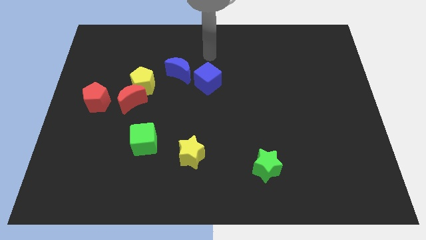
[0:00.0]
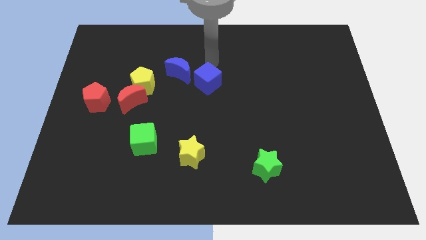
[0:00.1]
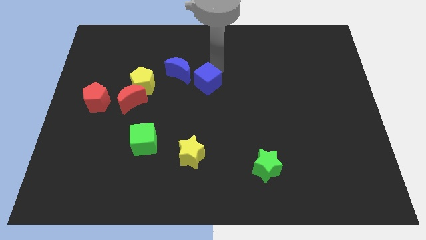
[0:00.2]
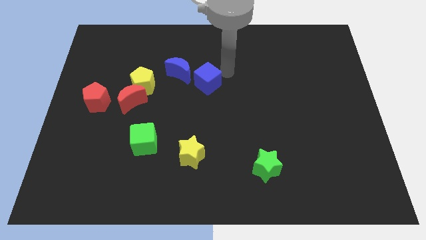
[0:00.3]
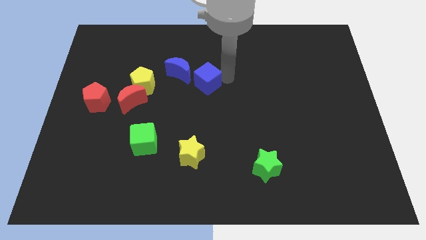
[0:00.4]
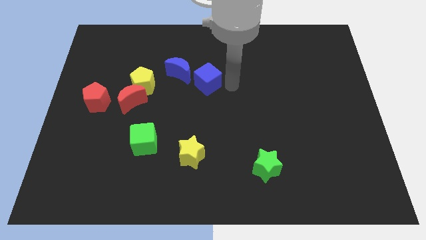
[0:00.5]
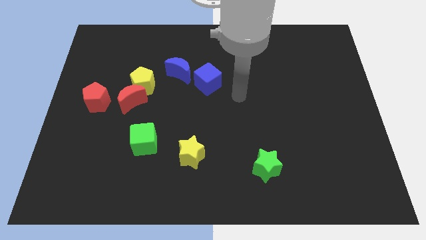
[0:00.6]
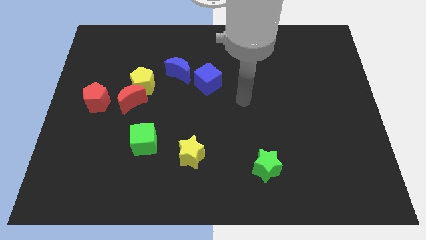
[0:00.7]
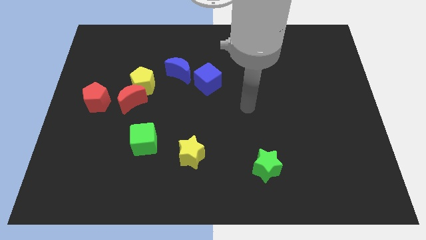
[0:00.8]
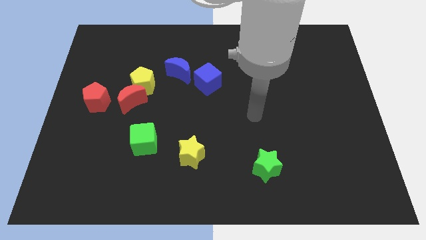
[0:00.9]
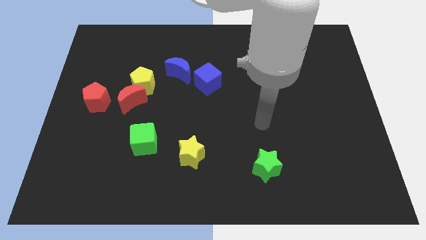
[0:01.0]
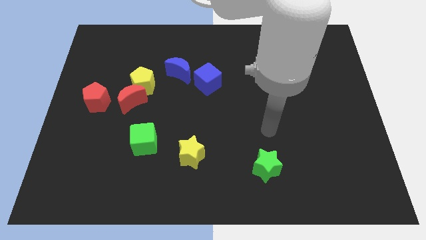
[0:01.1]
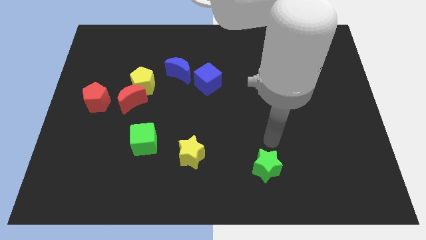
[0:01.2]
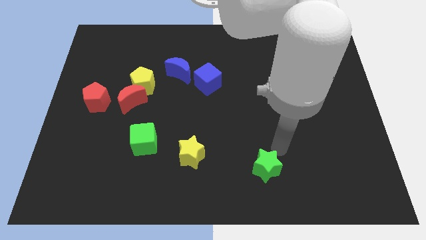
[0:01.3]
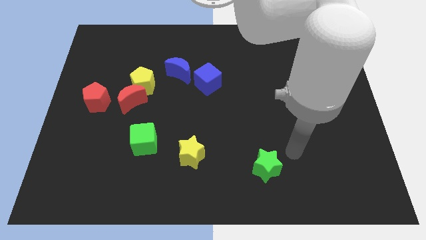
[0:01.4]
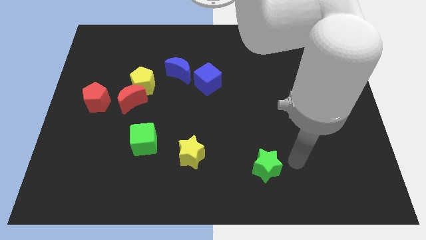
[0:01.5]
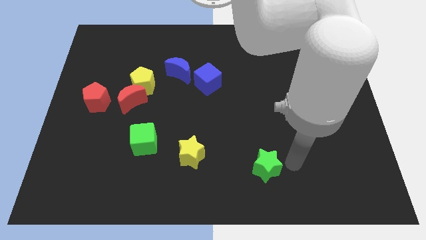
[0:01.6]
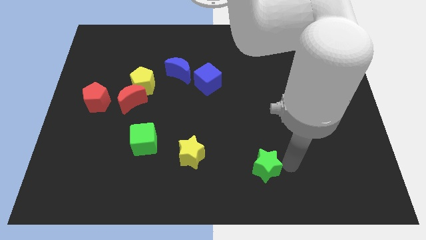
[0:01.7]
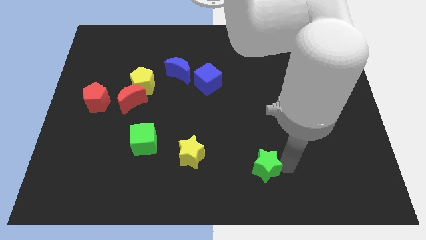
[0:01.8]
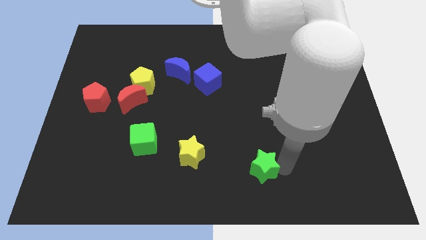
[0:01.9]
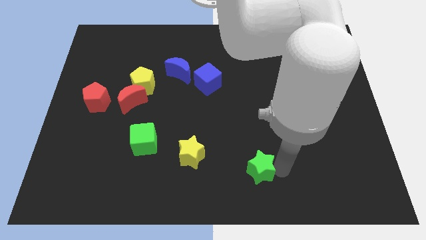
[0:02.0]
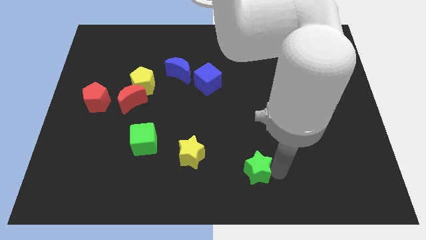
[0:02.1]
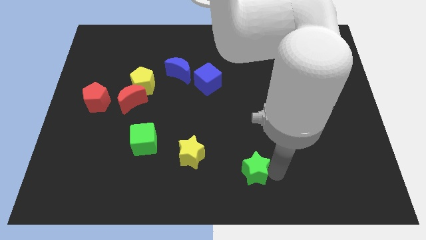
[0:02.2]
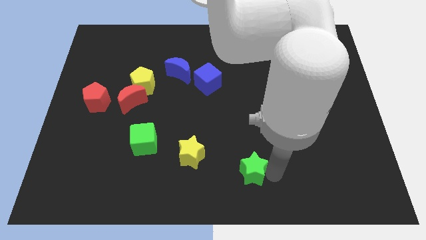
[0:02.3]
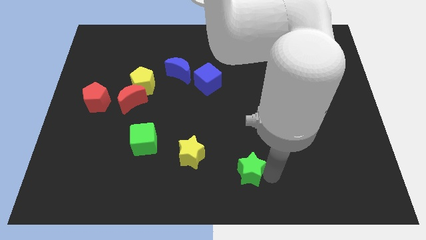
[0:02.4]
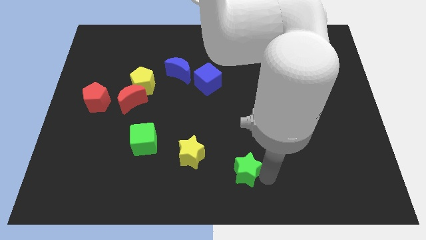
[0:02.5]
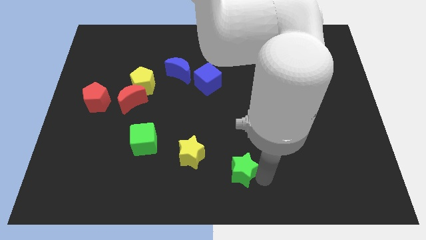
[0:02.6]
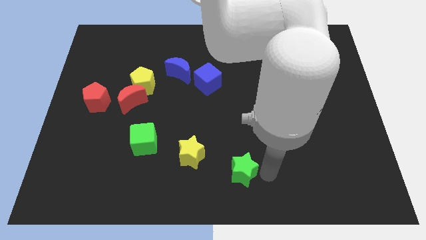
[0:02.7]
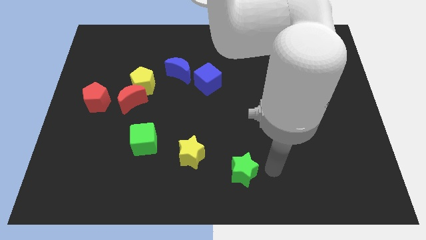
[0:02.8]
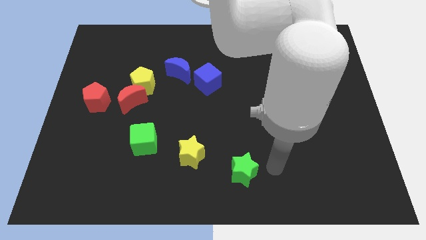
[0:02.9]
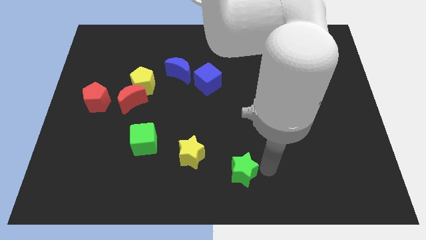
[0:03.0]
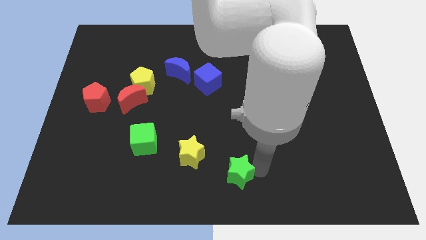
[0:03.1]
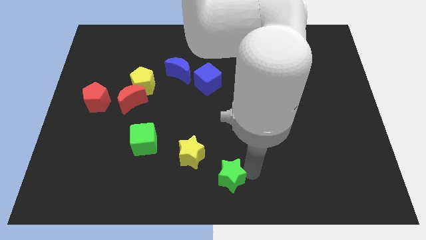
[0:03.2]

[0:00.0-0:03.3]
move the green star a little to the left

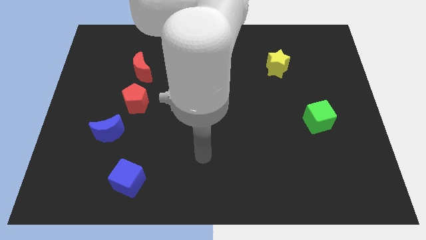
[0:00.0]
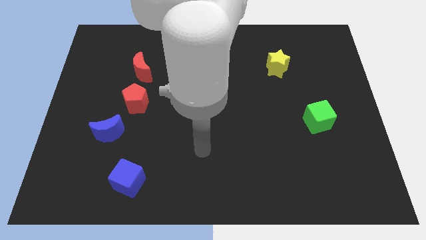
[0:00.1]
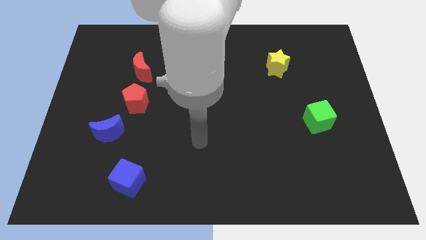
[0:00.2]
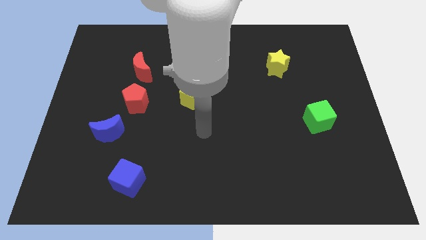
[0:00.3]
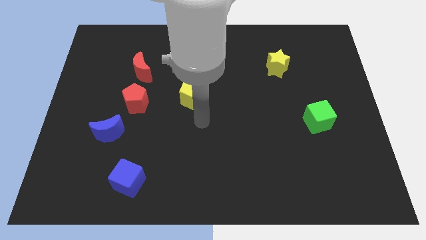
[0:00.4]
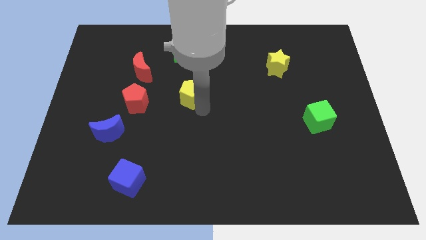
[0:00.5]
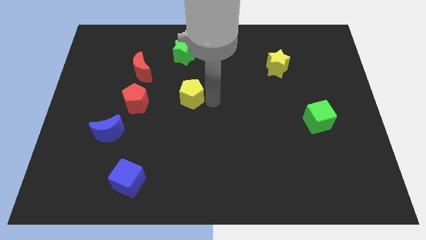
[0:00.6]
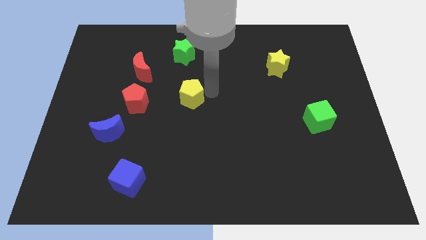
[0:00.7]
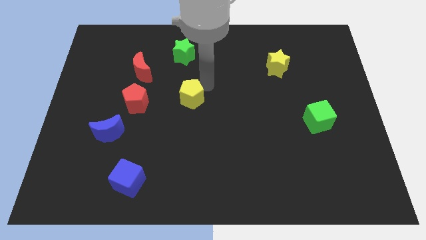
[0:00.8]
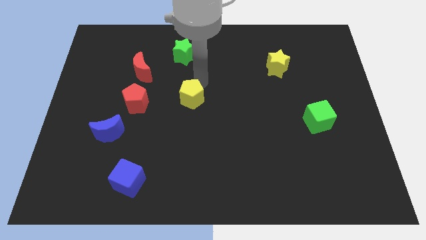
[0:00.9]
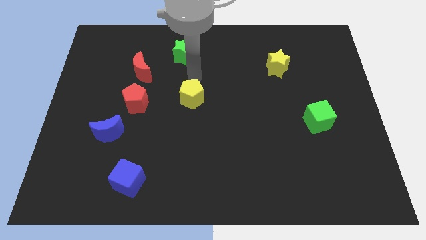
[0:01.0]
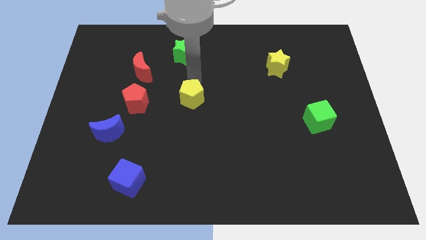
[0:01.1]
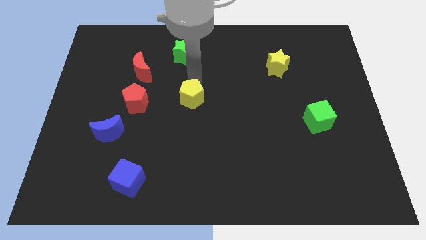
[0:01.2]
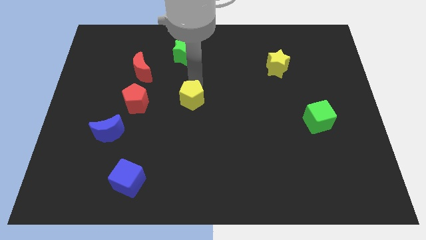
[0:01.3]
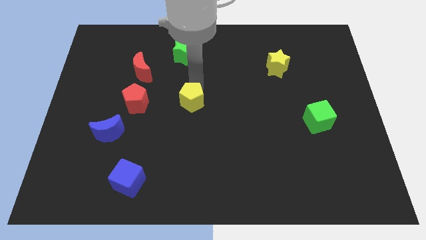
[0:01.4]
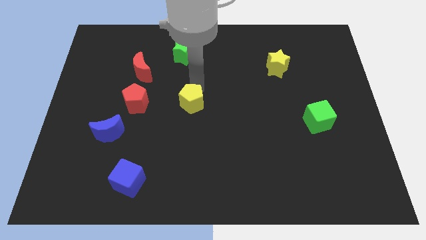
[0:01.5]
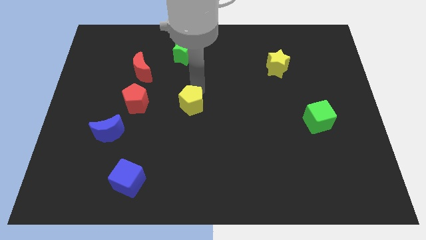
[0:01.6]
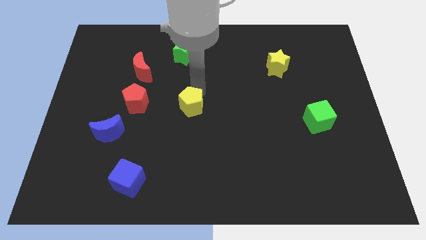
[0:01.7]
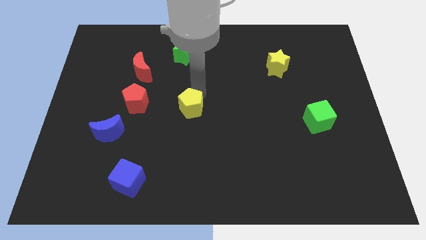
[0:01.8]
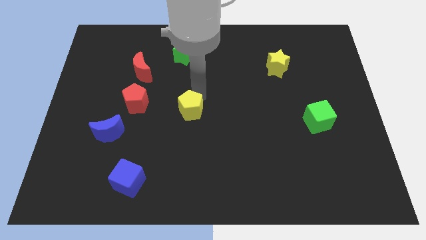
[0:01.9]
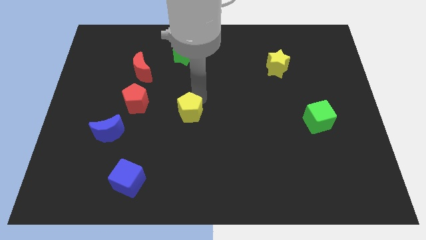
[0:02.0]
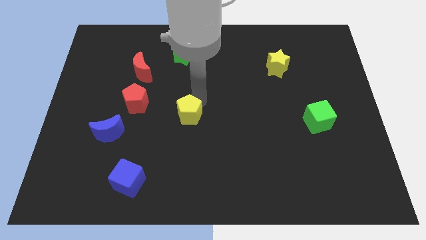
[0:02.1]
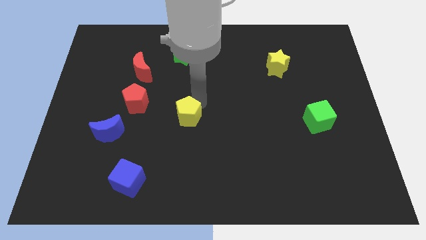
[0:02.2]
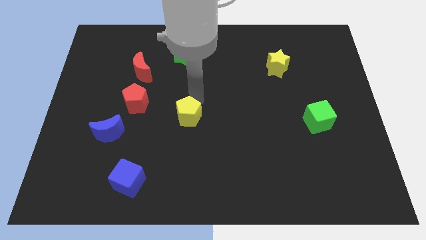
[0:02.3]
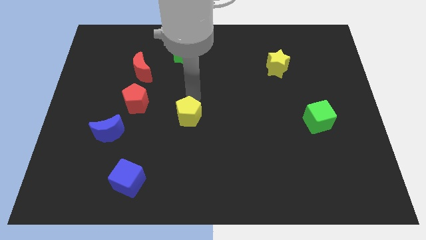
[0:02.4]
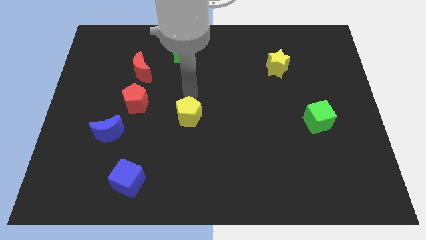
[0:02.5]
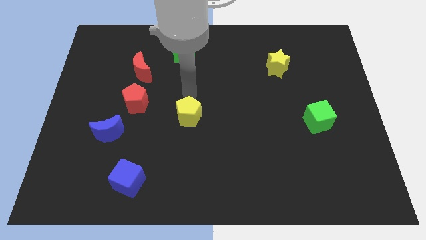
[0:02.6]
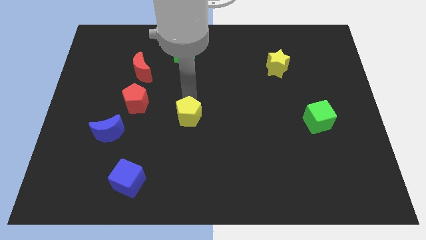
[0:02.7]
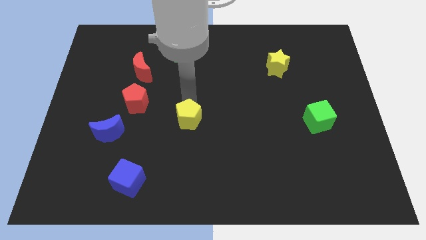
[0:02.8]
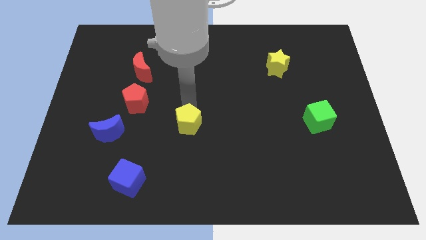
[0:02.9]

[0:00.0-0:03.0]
move the yellow pentagon down slightly

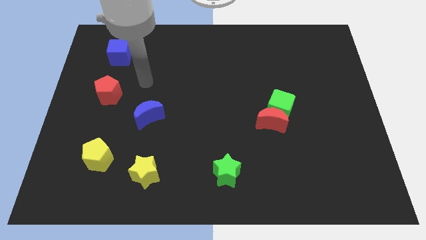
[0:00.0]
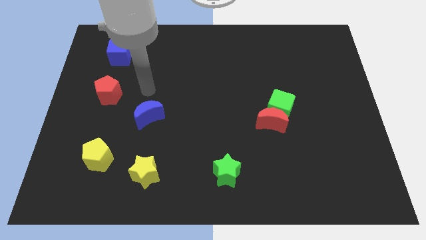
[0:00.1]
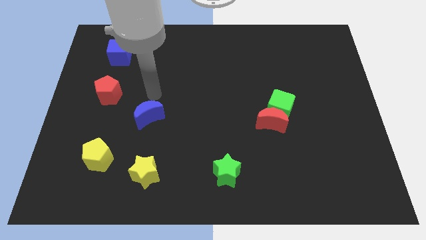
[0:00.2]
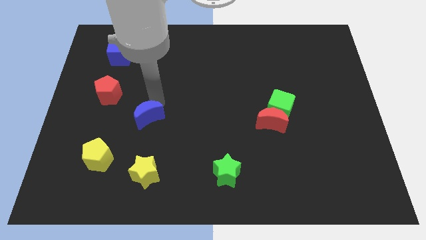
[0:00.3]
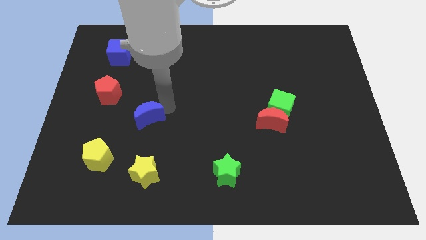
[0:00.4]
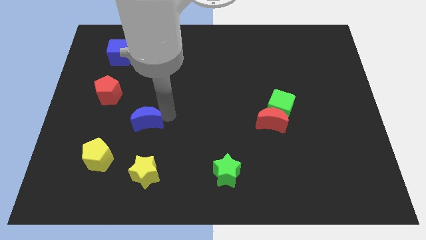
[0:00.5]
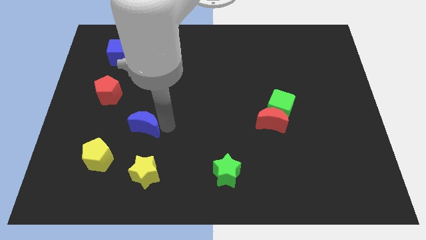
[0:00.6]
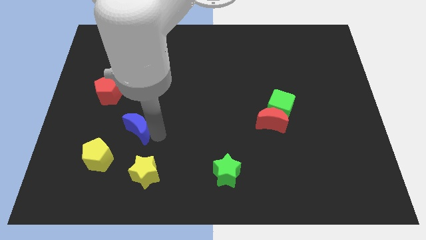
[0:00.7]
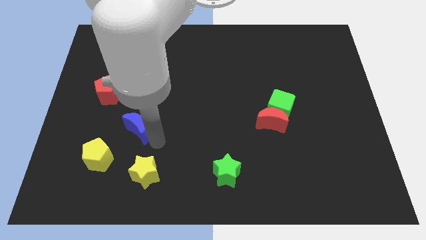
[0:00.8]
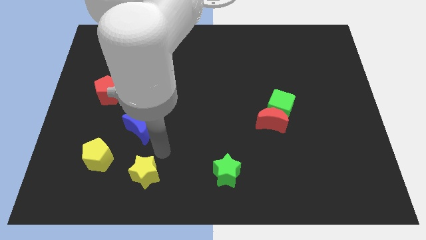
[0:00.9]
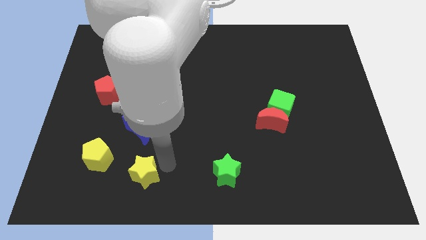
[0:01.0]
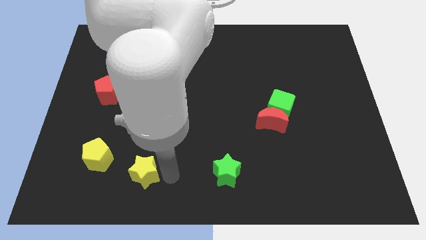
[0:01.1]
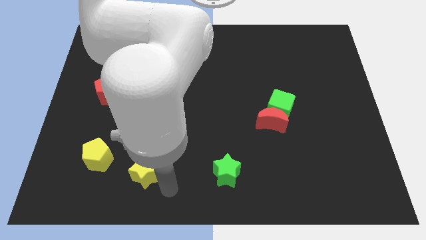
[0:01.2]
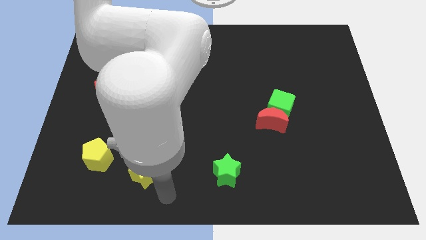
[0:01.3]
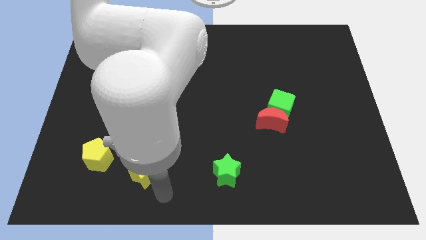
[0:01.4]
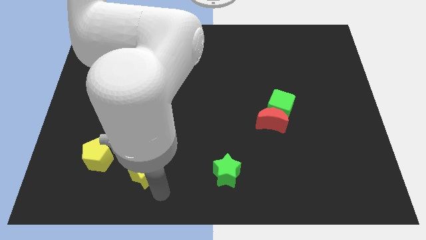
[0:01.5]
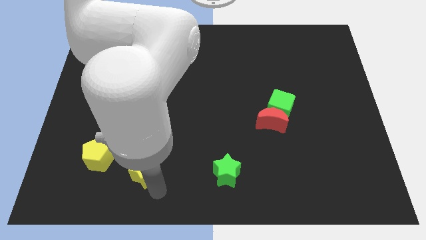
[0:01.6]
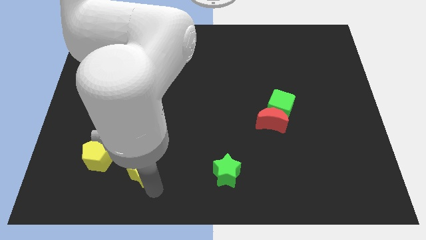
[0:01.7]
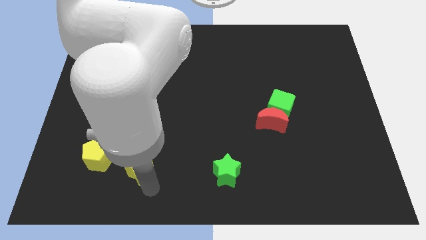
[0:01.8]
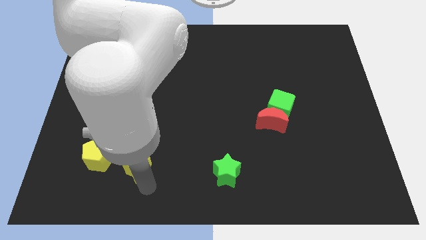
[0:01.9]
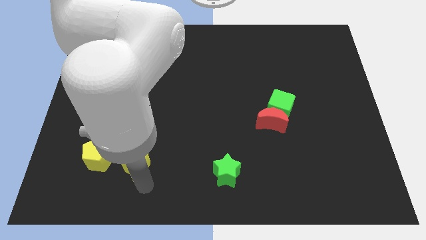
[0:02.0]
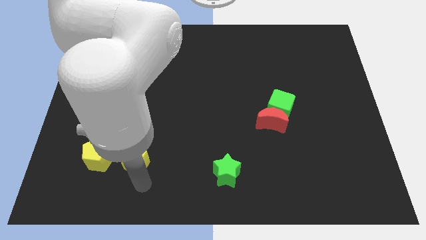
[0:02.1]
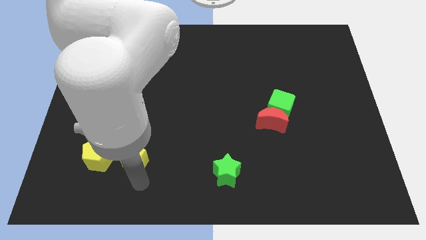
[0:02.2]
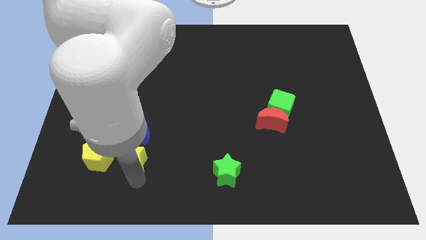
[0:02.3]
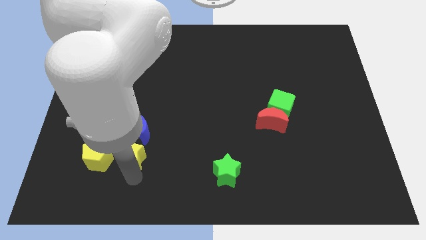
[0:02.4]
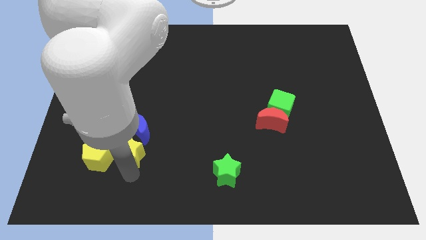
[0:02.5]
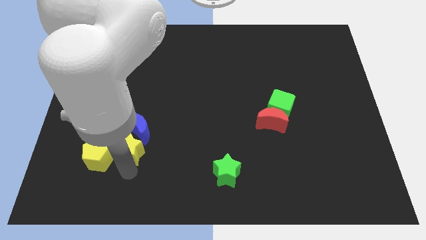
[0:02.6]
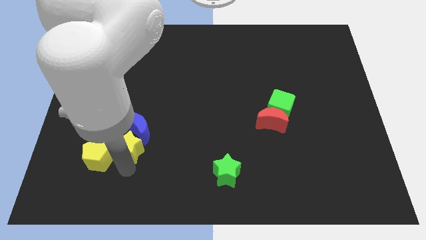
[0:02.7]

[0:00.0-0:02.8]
slightly slide the yellow star up and to the left
